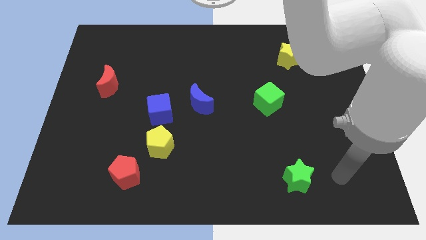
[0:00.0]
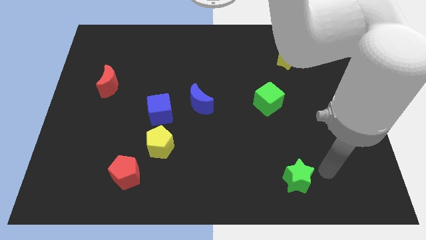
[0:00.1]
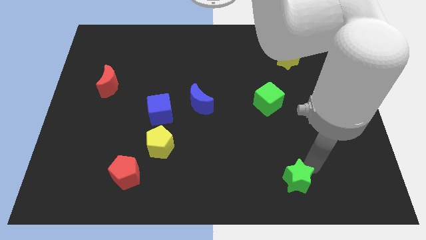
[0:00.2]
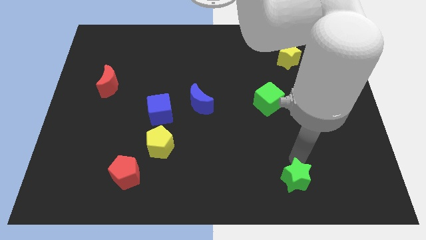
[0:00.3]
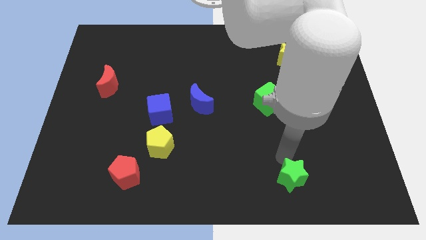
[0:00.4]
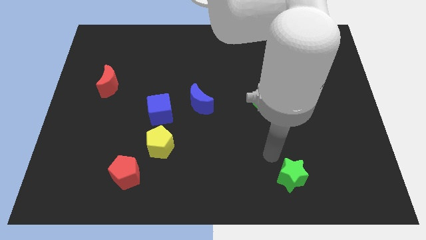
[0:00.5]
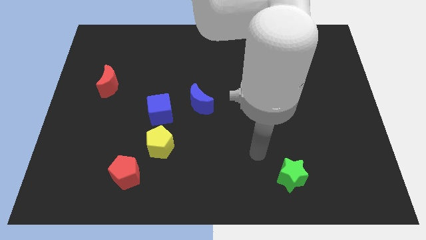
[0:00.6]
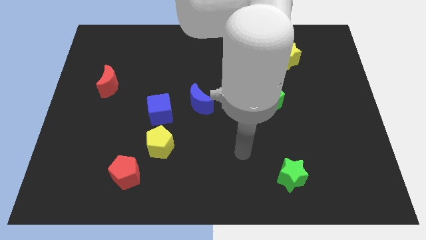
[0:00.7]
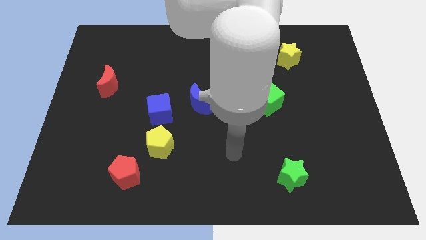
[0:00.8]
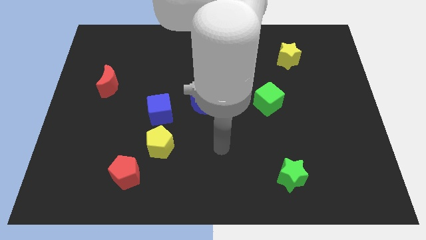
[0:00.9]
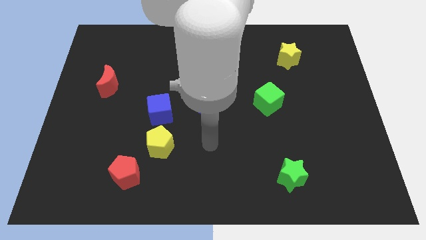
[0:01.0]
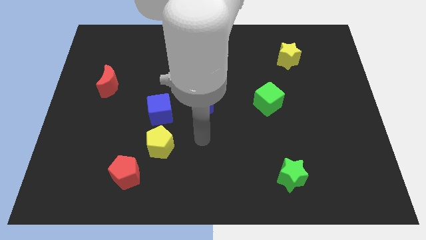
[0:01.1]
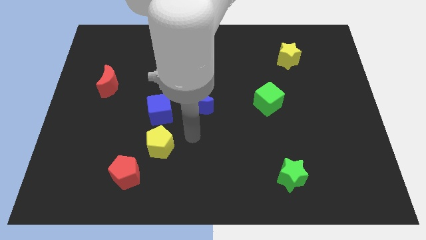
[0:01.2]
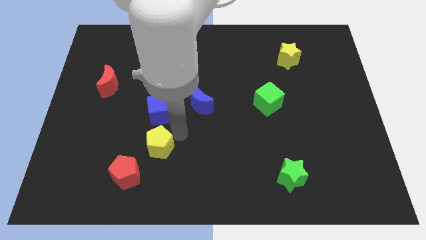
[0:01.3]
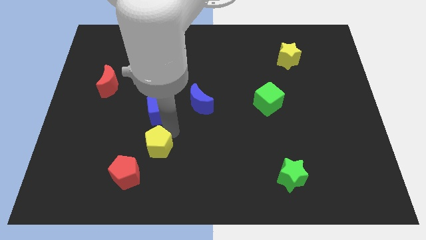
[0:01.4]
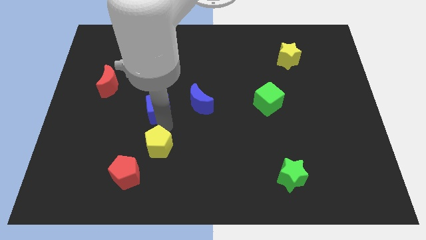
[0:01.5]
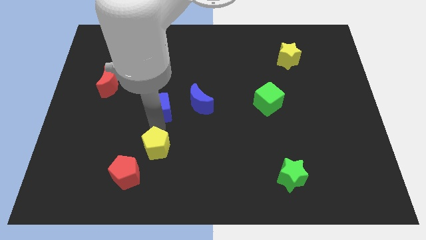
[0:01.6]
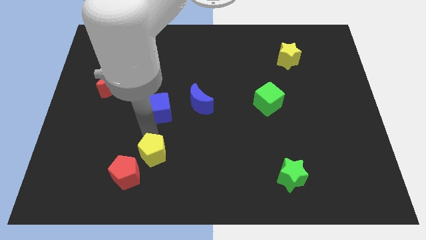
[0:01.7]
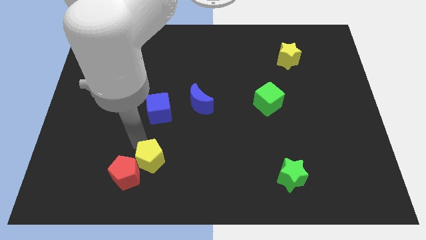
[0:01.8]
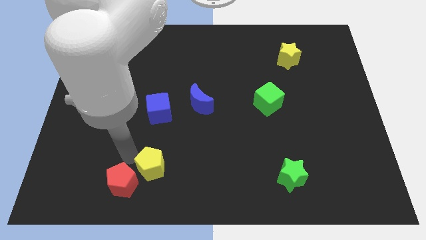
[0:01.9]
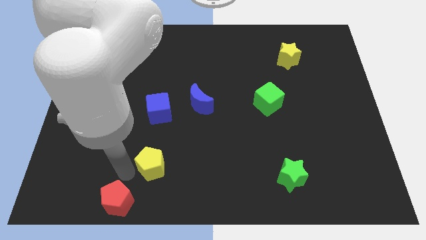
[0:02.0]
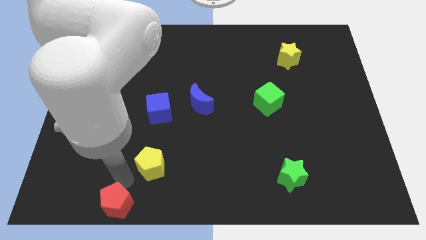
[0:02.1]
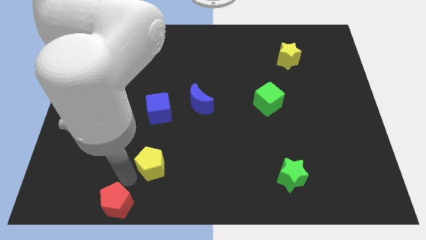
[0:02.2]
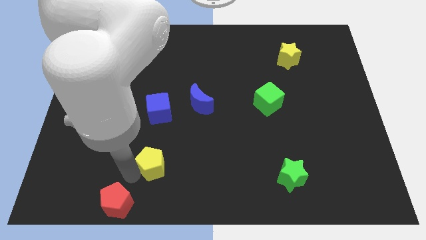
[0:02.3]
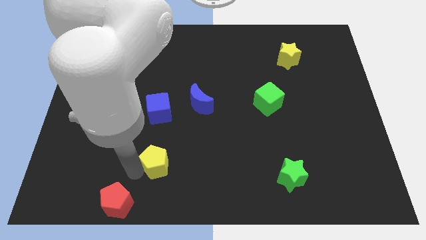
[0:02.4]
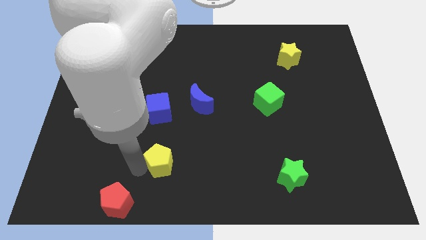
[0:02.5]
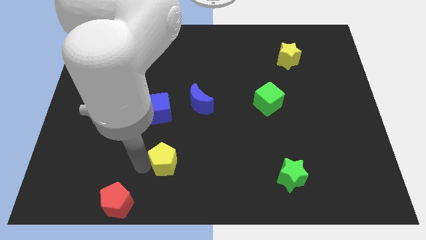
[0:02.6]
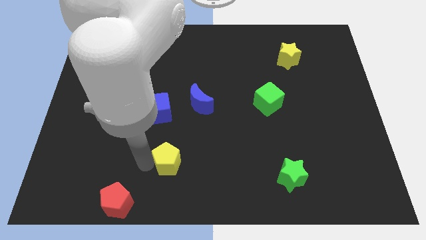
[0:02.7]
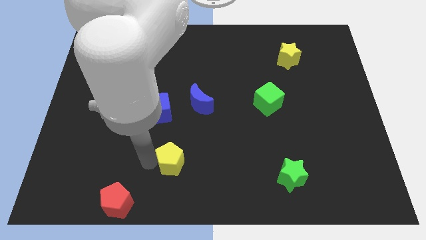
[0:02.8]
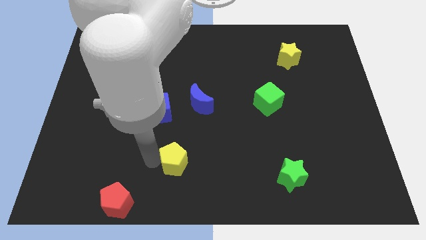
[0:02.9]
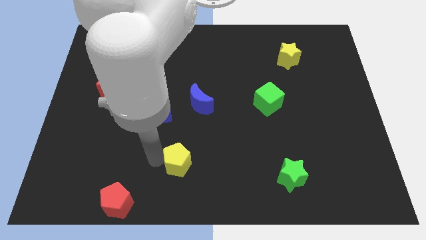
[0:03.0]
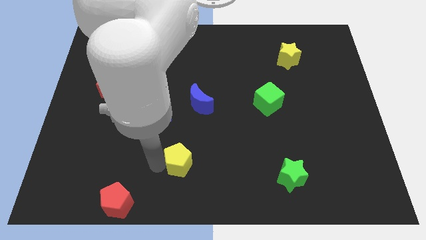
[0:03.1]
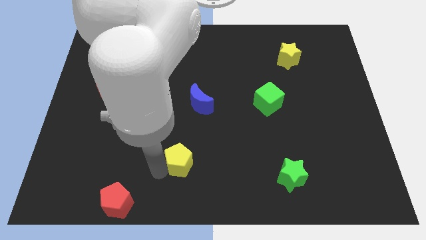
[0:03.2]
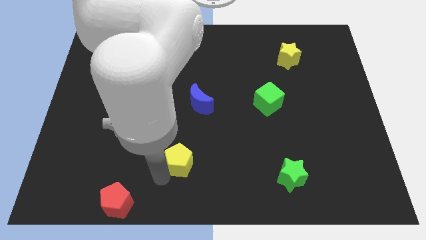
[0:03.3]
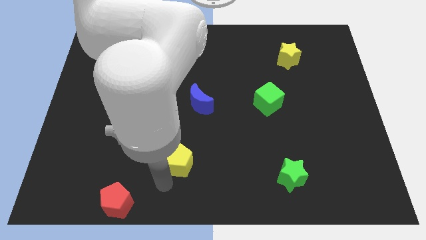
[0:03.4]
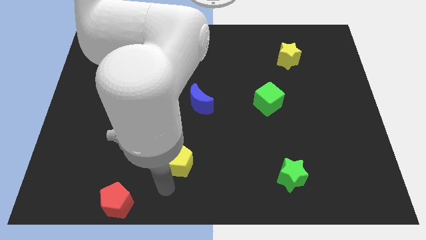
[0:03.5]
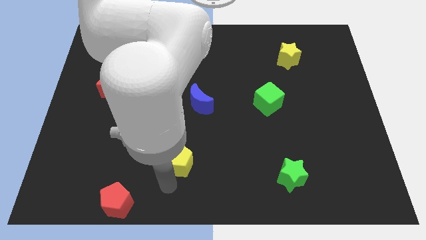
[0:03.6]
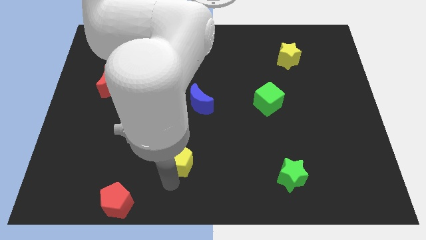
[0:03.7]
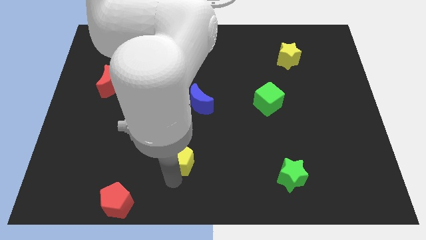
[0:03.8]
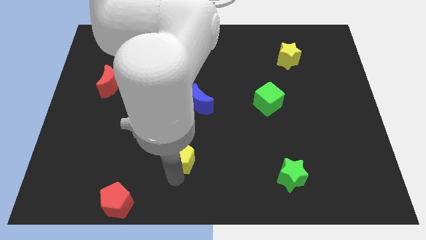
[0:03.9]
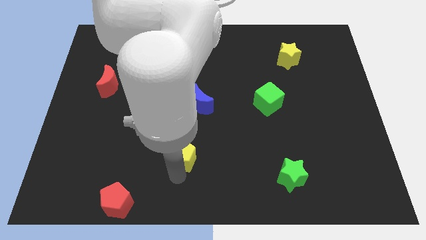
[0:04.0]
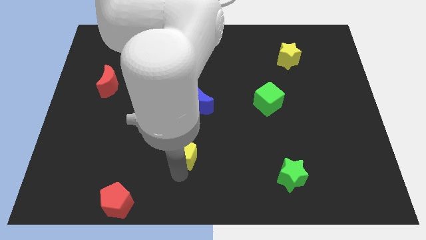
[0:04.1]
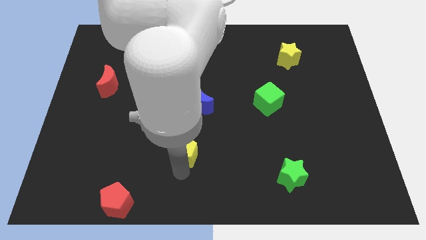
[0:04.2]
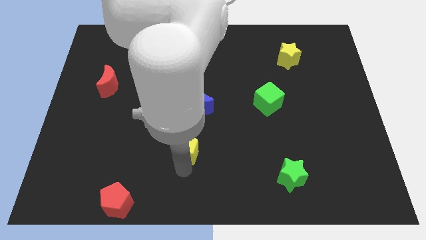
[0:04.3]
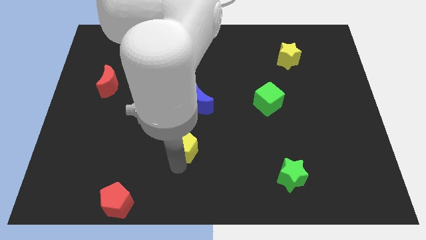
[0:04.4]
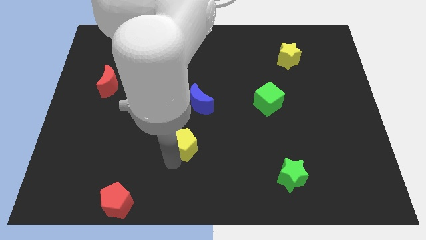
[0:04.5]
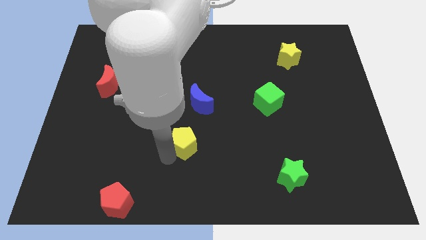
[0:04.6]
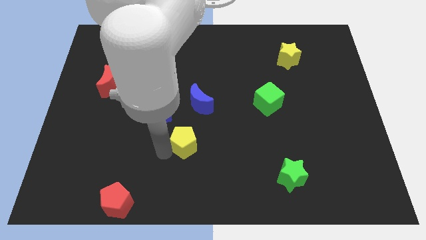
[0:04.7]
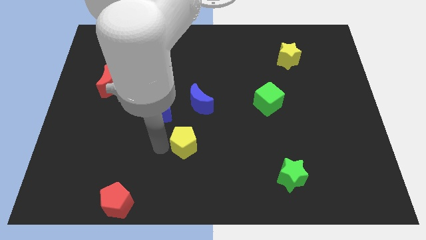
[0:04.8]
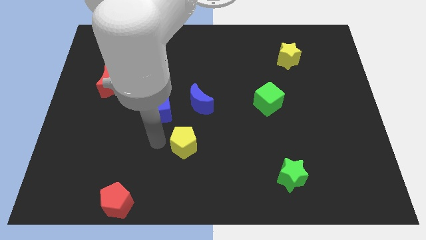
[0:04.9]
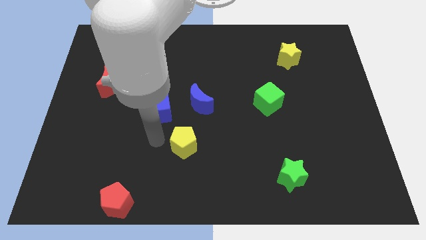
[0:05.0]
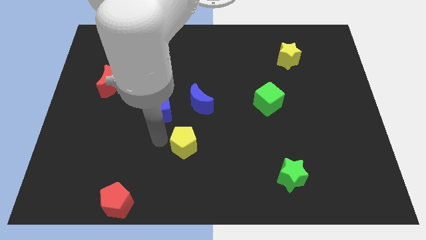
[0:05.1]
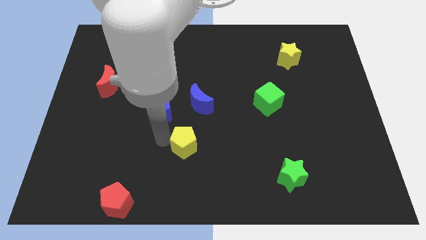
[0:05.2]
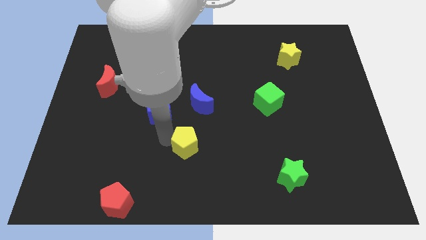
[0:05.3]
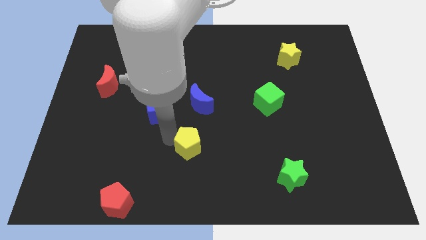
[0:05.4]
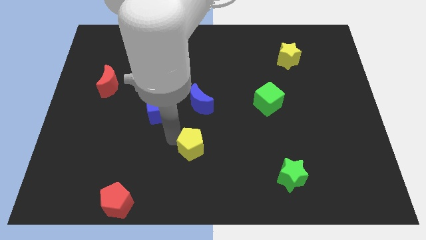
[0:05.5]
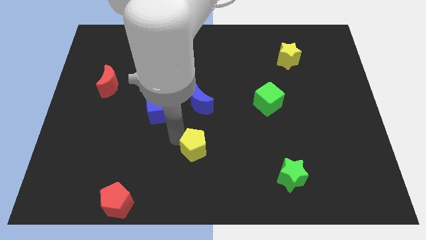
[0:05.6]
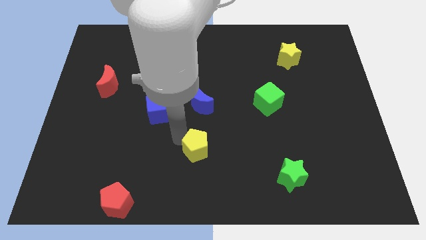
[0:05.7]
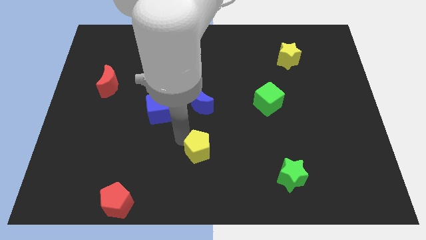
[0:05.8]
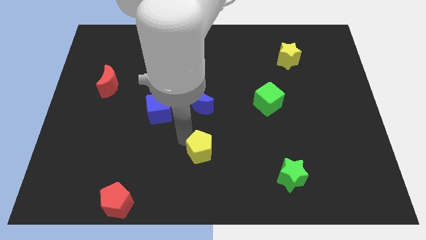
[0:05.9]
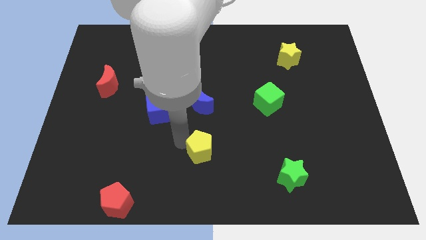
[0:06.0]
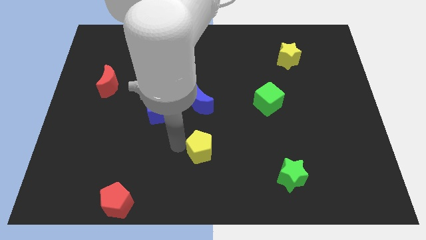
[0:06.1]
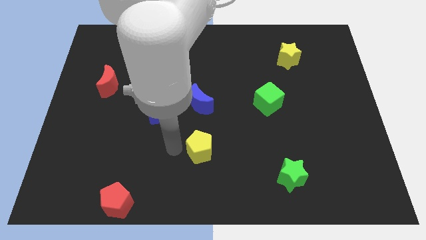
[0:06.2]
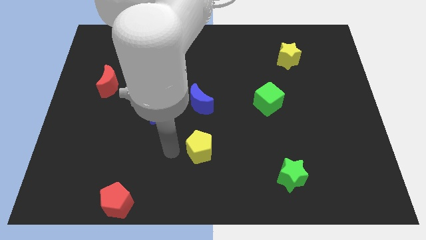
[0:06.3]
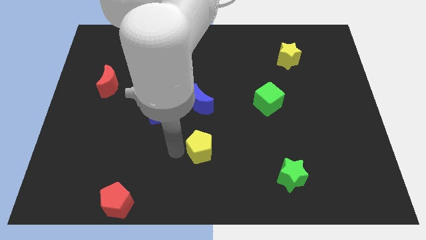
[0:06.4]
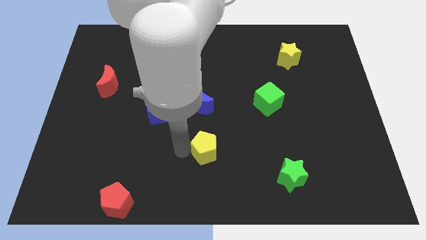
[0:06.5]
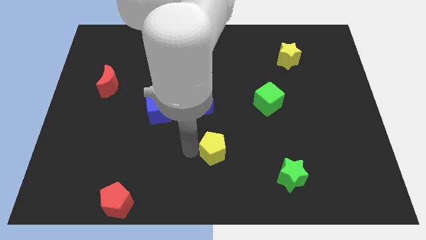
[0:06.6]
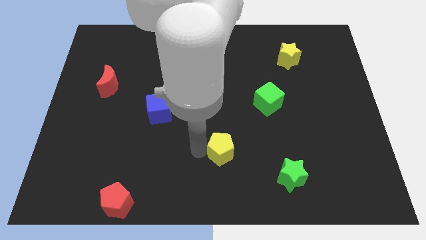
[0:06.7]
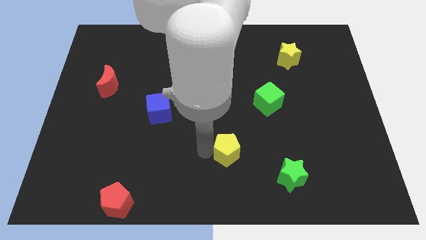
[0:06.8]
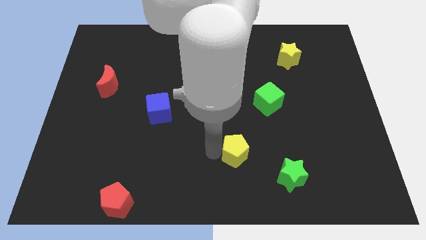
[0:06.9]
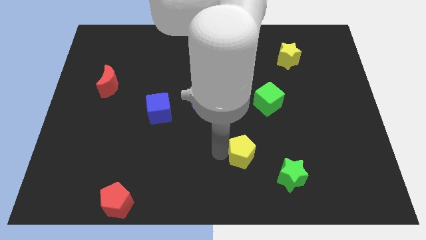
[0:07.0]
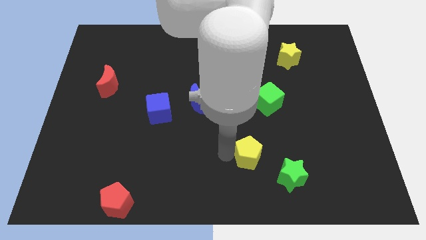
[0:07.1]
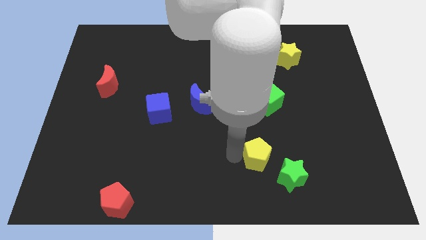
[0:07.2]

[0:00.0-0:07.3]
slide the yellow pentagon right

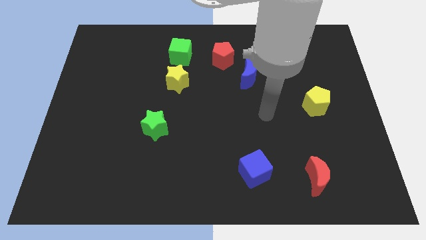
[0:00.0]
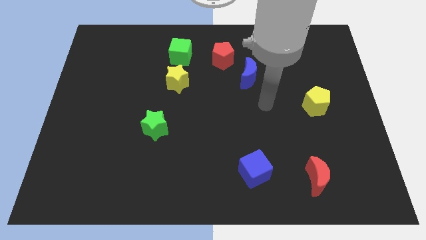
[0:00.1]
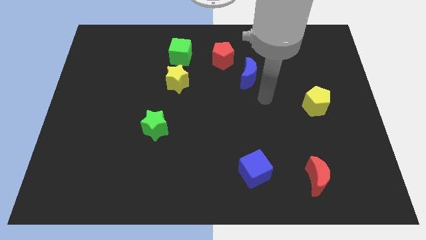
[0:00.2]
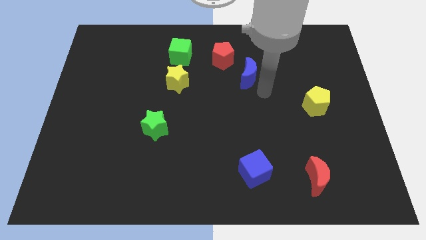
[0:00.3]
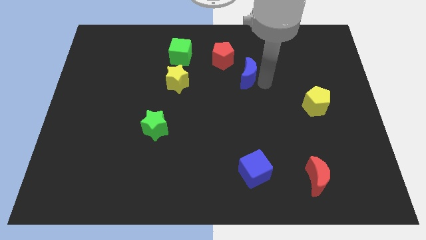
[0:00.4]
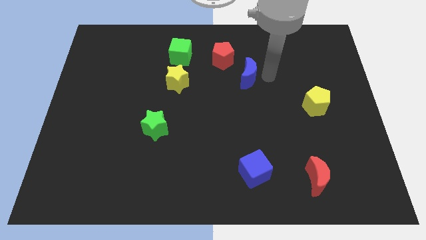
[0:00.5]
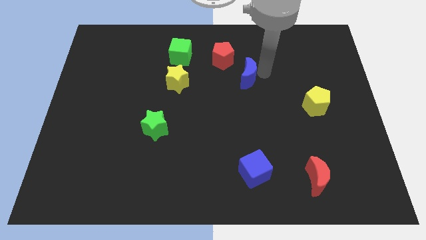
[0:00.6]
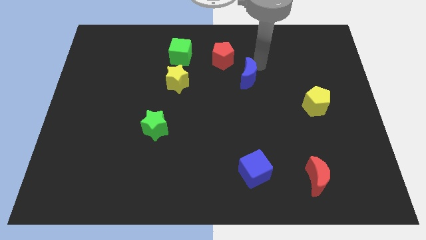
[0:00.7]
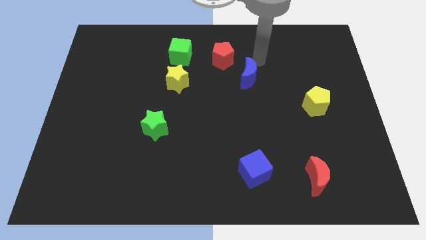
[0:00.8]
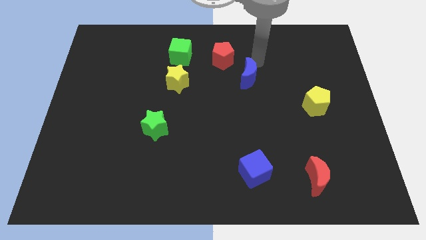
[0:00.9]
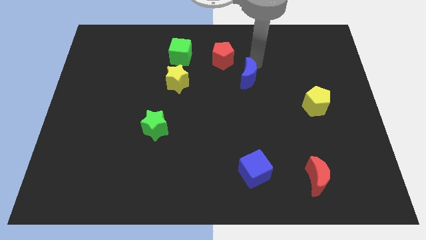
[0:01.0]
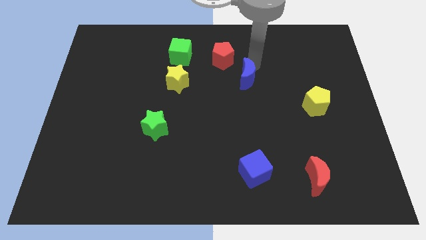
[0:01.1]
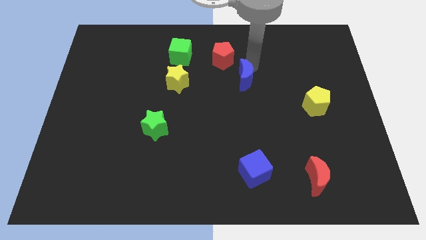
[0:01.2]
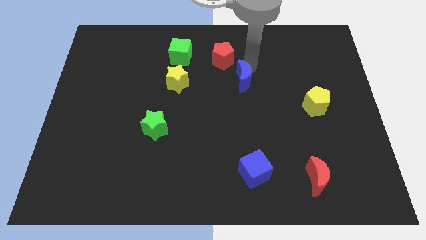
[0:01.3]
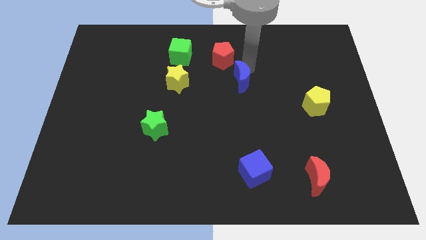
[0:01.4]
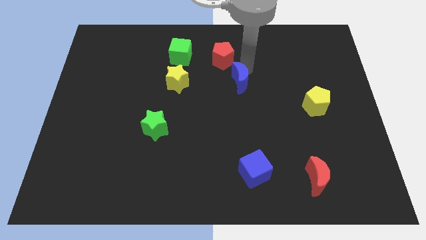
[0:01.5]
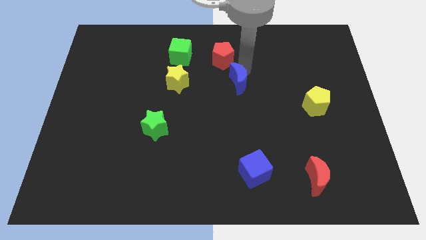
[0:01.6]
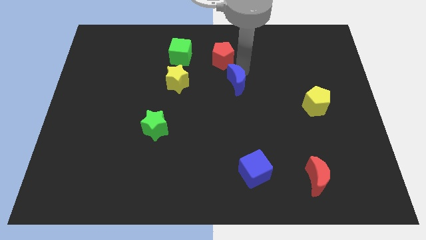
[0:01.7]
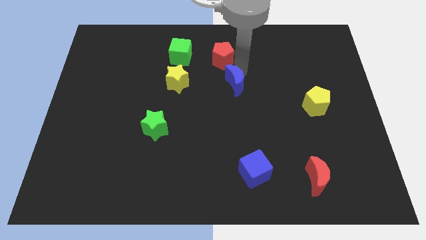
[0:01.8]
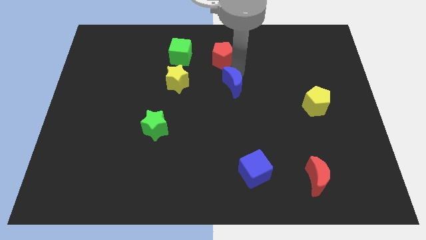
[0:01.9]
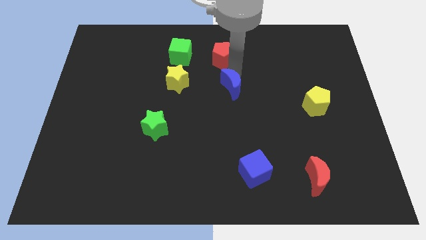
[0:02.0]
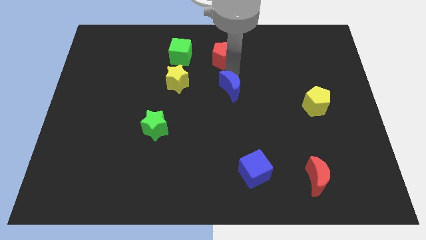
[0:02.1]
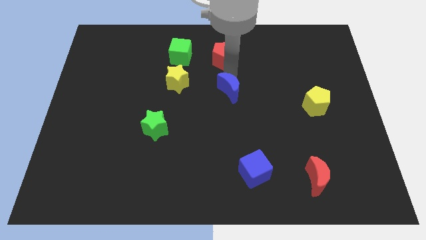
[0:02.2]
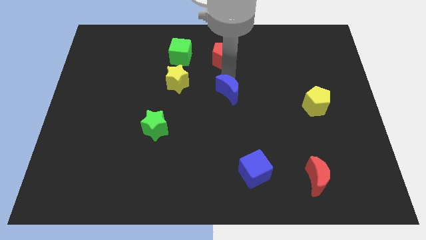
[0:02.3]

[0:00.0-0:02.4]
push the blue moon somewhat down and then to the left
